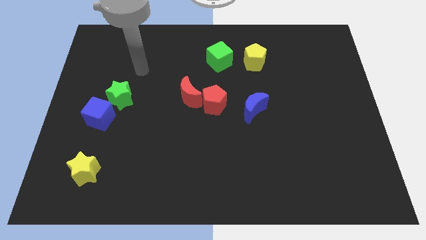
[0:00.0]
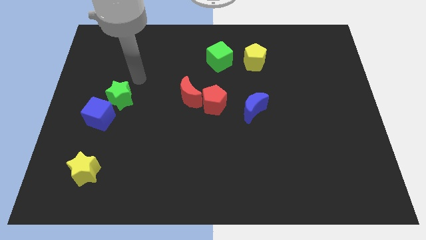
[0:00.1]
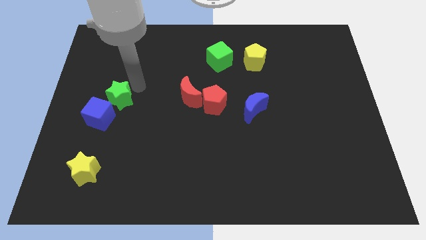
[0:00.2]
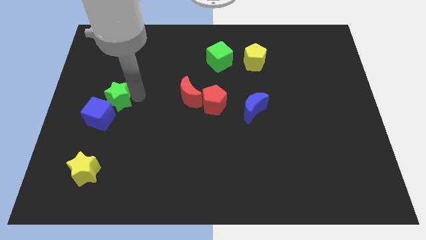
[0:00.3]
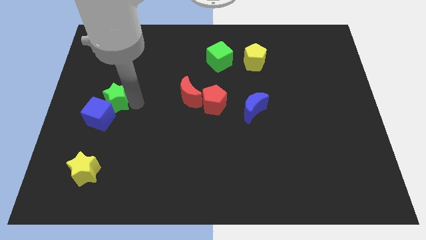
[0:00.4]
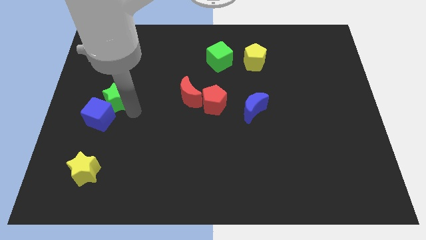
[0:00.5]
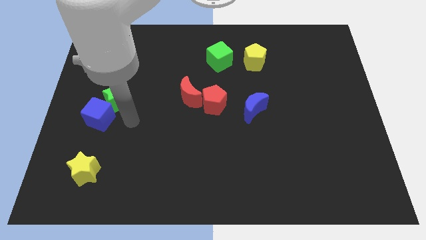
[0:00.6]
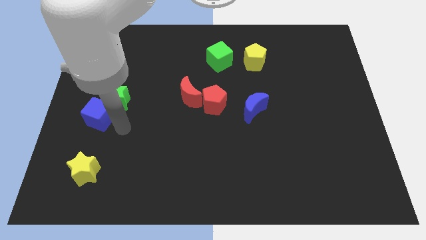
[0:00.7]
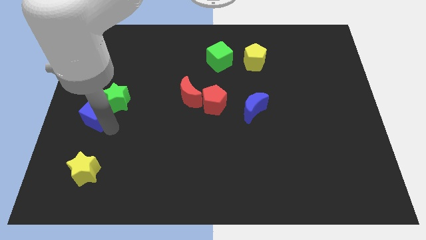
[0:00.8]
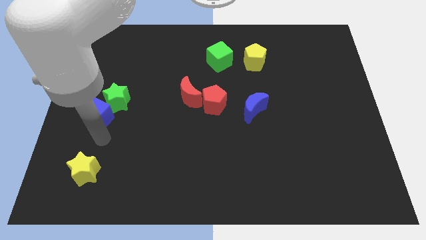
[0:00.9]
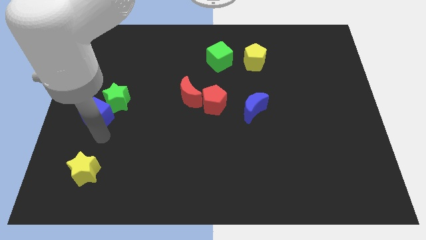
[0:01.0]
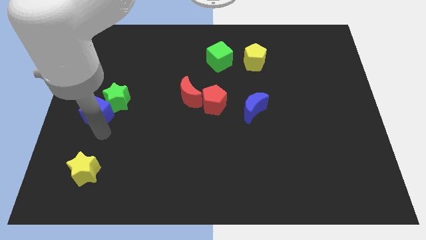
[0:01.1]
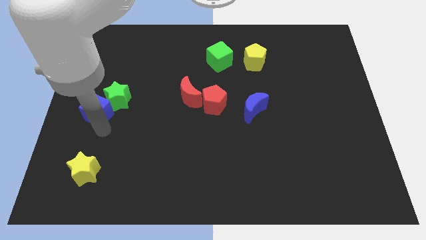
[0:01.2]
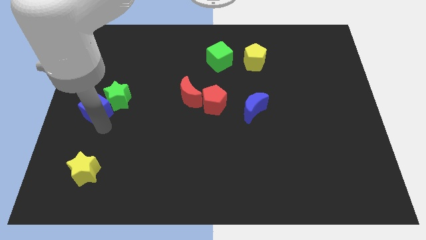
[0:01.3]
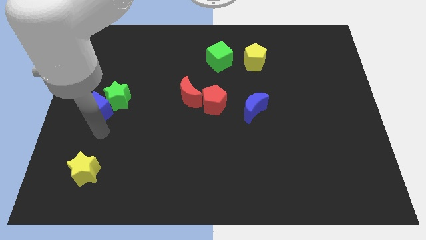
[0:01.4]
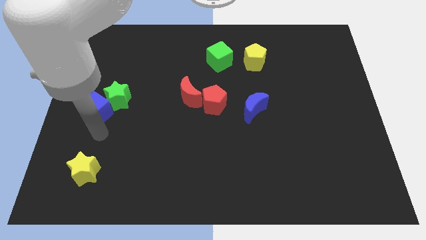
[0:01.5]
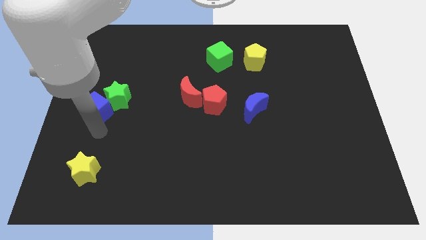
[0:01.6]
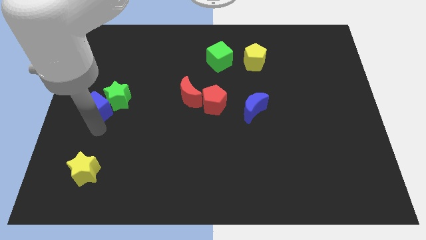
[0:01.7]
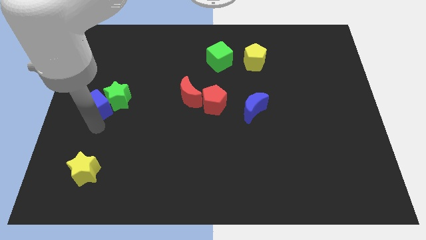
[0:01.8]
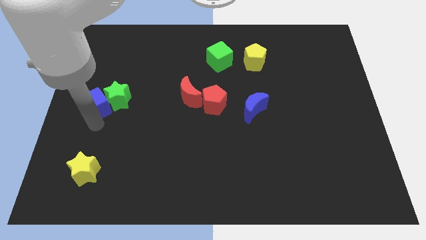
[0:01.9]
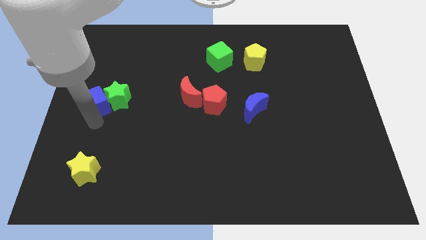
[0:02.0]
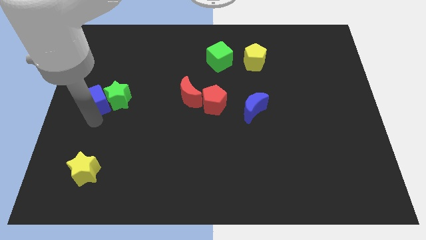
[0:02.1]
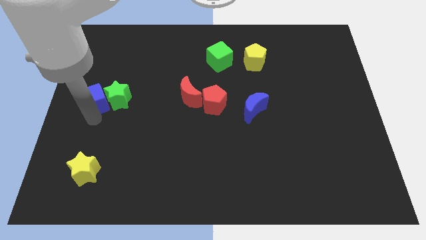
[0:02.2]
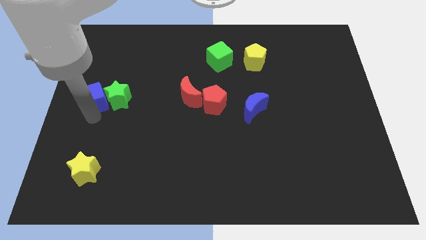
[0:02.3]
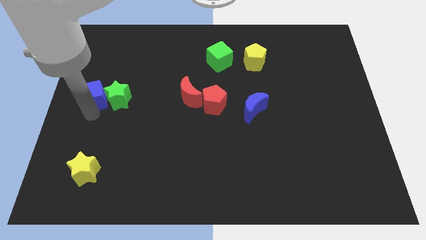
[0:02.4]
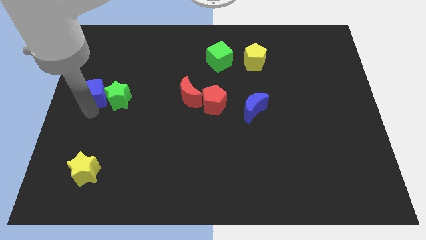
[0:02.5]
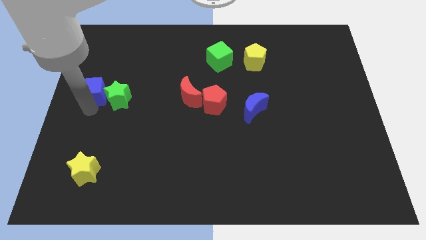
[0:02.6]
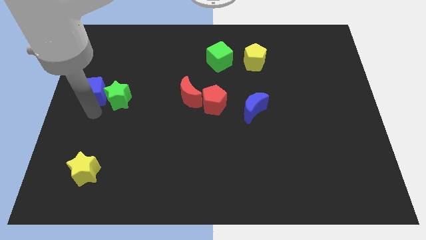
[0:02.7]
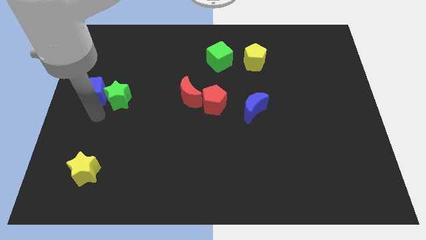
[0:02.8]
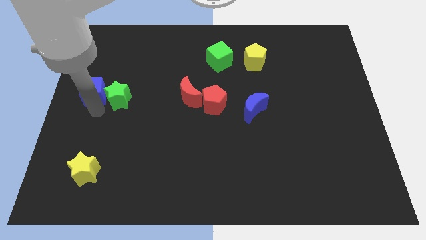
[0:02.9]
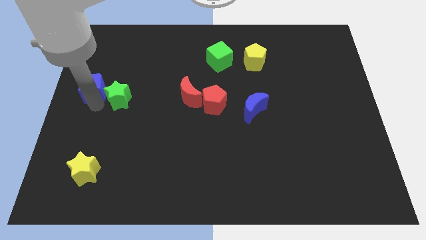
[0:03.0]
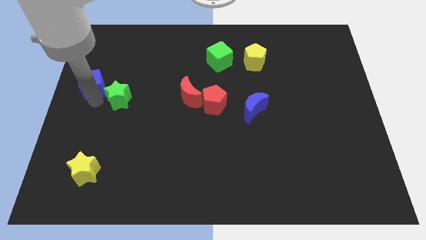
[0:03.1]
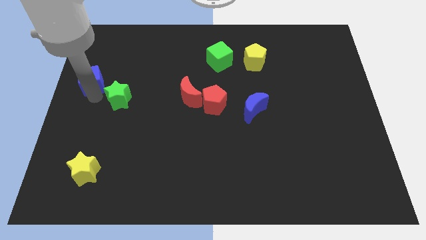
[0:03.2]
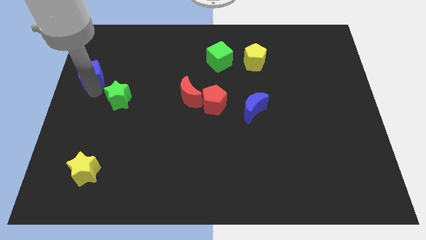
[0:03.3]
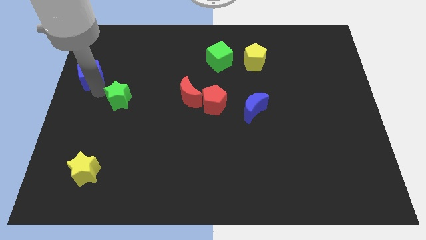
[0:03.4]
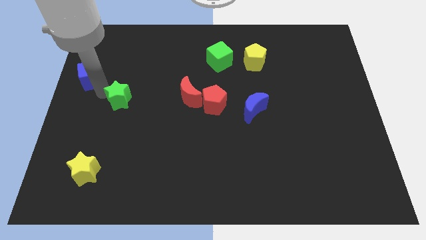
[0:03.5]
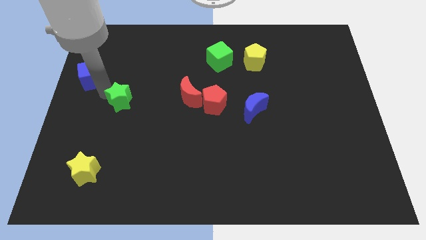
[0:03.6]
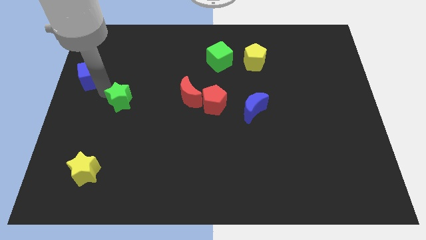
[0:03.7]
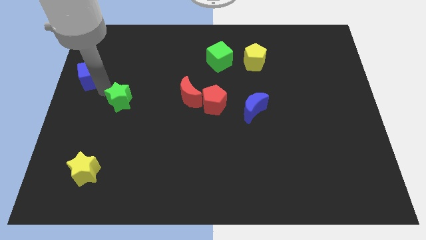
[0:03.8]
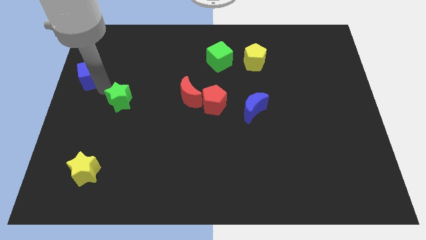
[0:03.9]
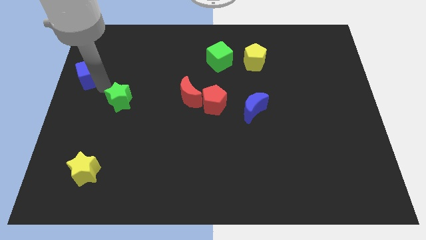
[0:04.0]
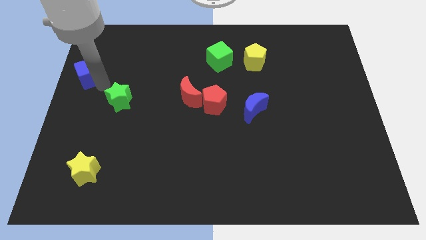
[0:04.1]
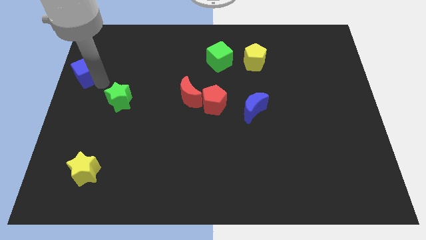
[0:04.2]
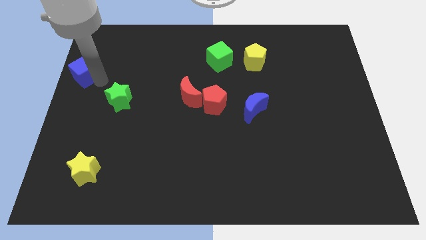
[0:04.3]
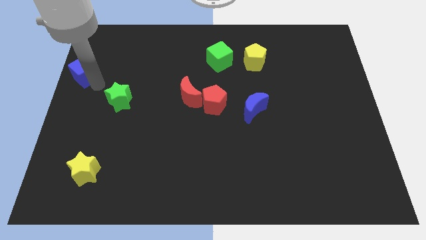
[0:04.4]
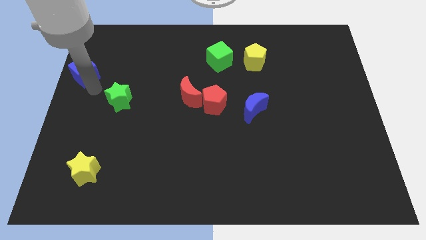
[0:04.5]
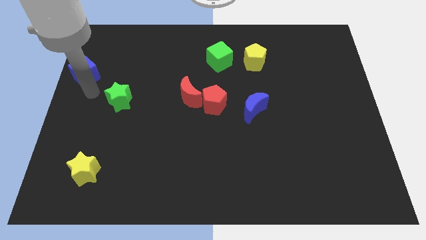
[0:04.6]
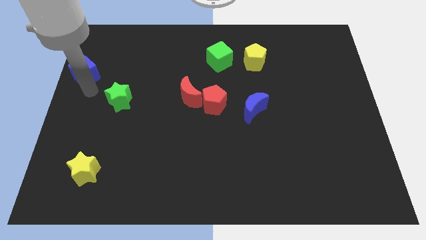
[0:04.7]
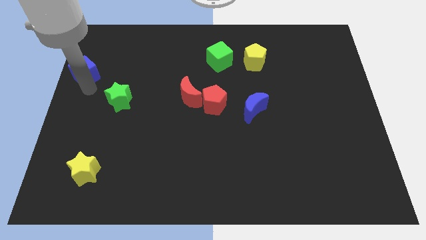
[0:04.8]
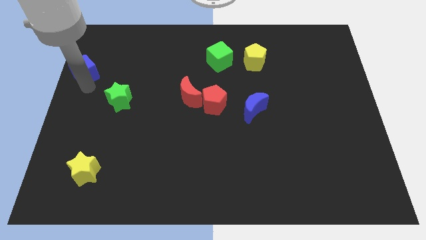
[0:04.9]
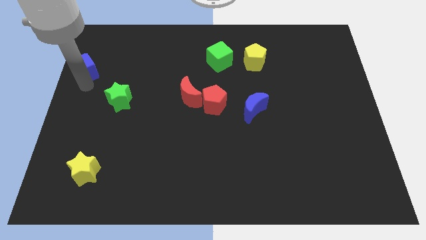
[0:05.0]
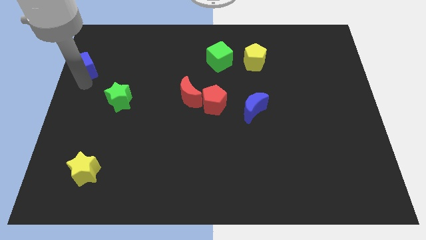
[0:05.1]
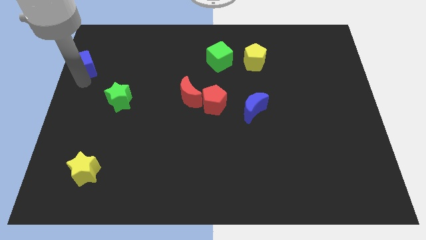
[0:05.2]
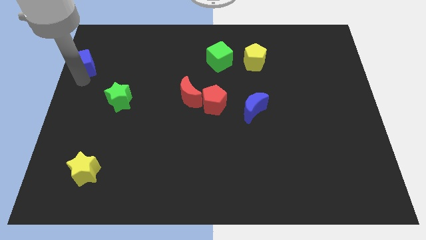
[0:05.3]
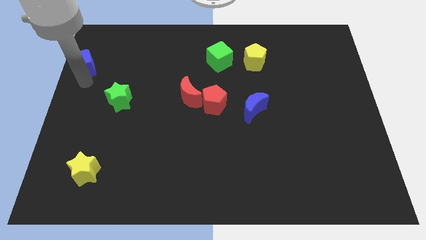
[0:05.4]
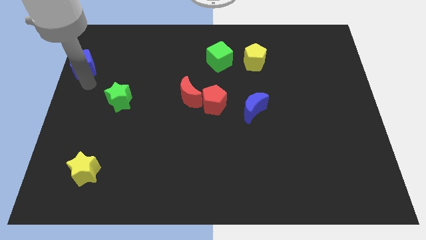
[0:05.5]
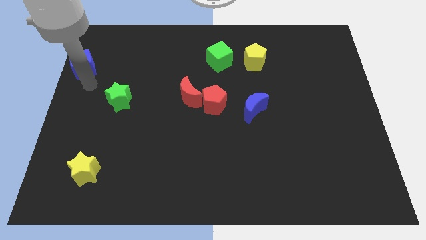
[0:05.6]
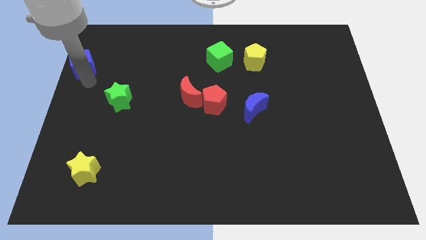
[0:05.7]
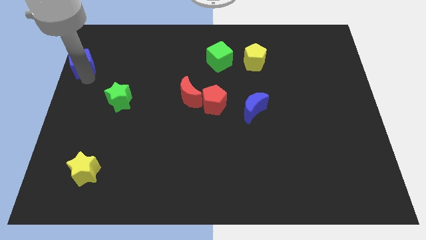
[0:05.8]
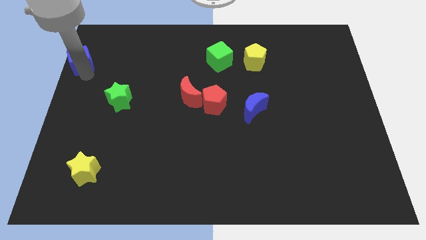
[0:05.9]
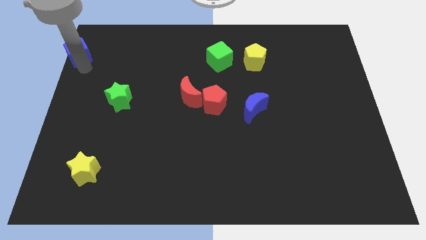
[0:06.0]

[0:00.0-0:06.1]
move the blue cube to the top left corner

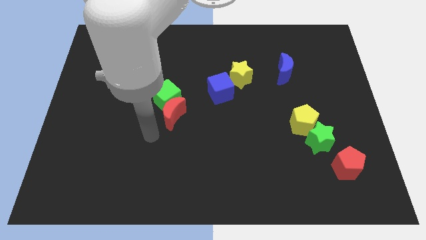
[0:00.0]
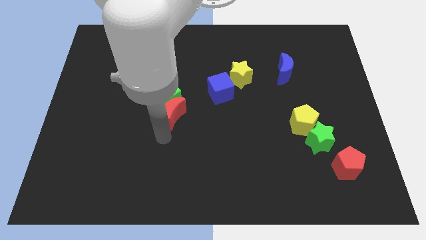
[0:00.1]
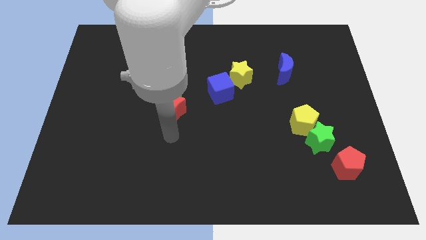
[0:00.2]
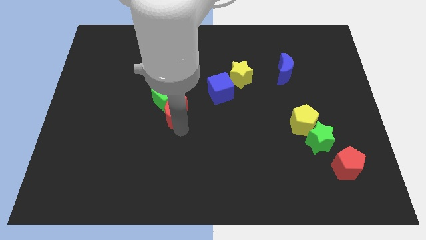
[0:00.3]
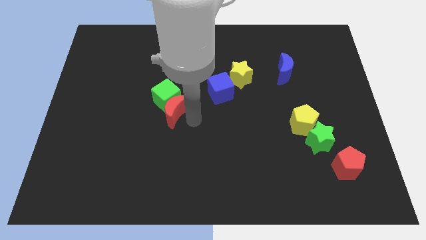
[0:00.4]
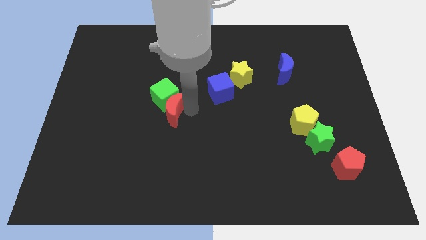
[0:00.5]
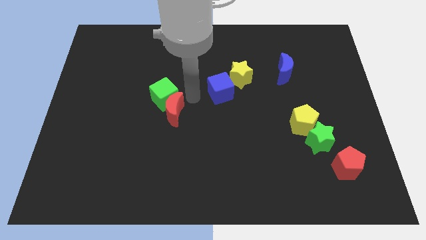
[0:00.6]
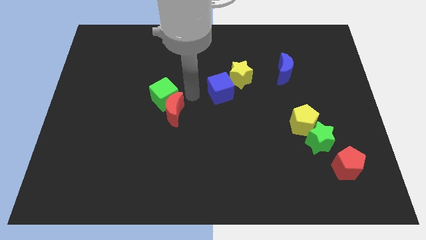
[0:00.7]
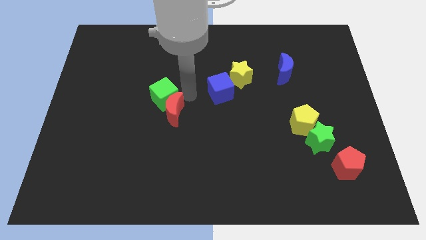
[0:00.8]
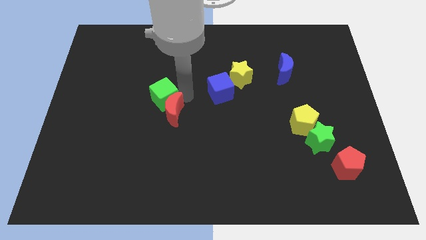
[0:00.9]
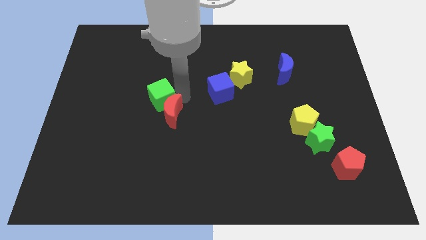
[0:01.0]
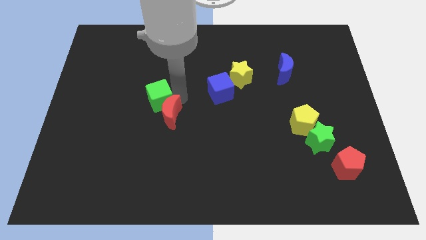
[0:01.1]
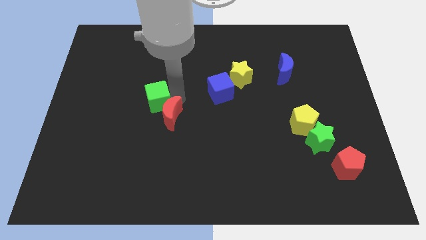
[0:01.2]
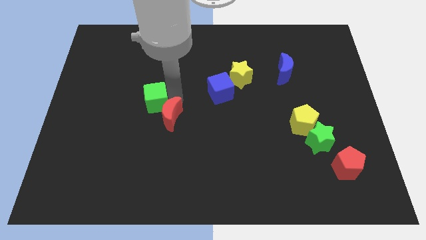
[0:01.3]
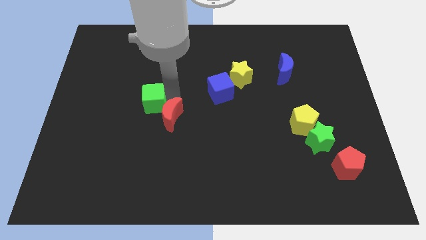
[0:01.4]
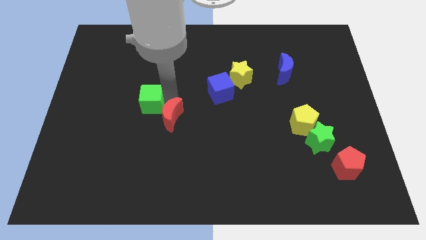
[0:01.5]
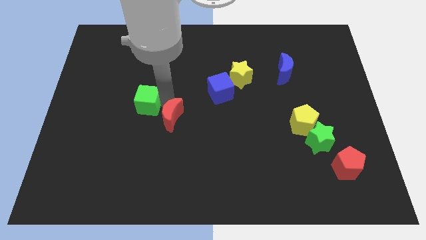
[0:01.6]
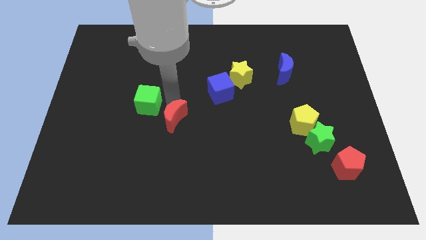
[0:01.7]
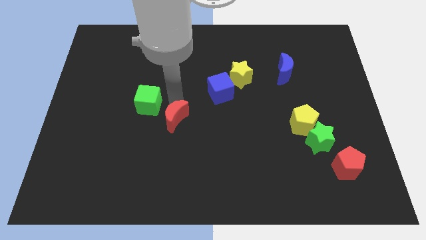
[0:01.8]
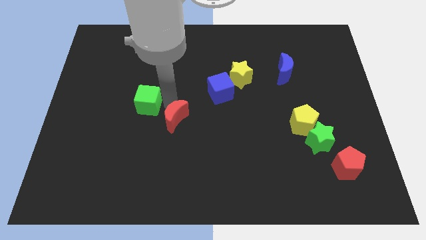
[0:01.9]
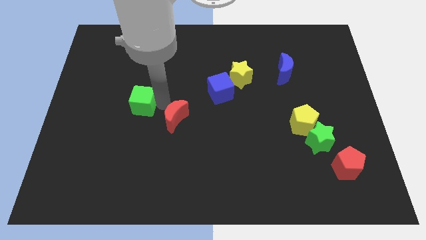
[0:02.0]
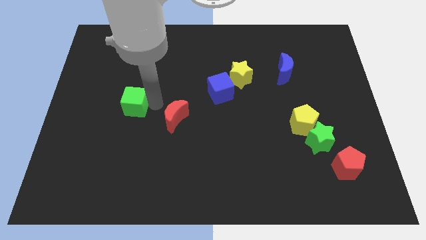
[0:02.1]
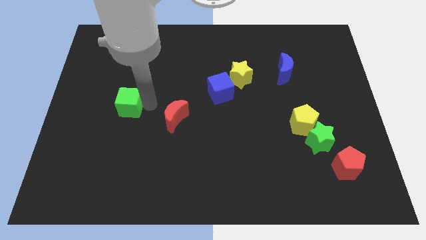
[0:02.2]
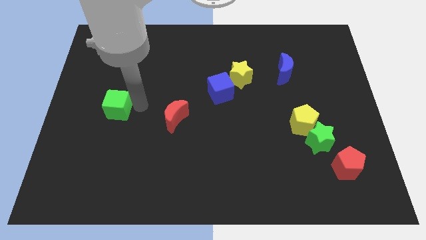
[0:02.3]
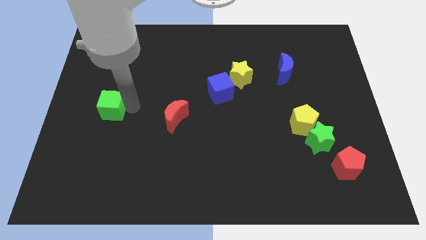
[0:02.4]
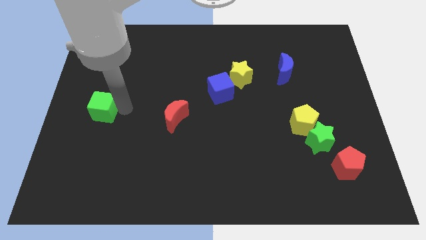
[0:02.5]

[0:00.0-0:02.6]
put the green cube to the left side
